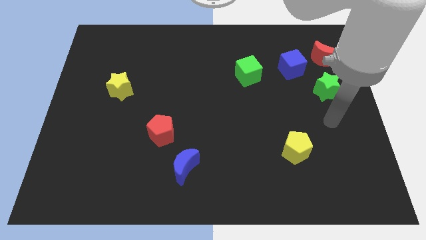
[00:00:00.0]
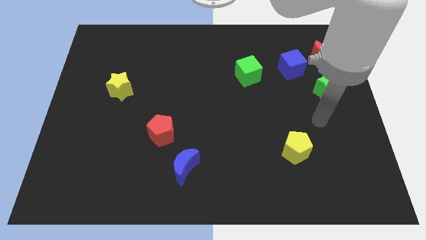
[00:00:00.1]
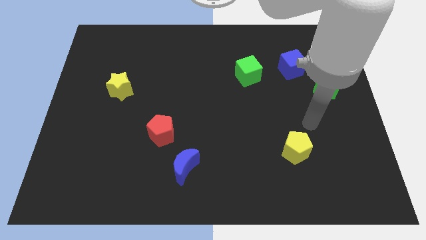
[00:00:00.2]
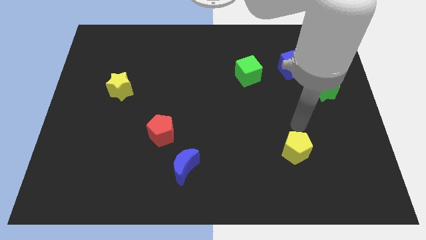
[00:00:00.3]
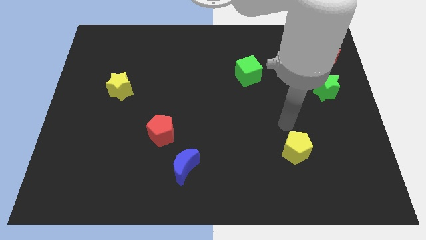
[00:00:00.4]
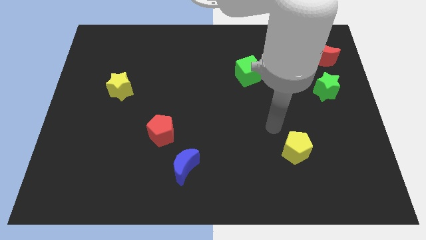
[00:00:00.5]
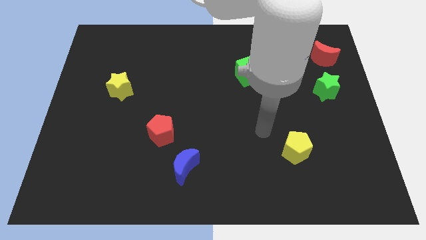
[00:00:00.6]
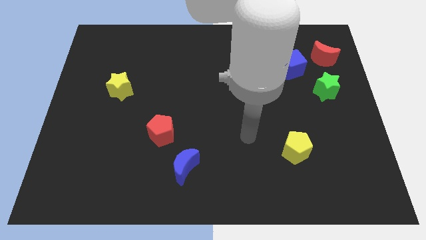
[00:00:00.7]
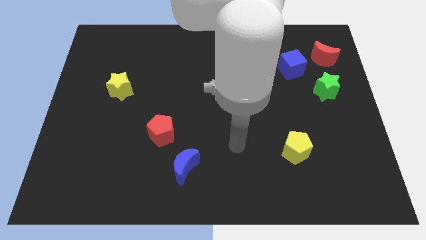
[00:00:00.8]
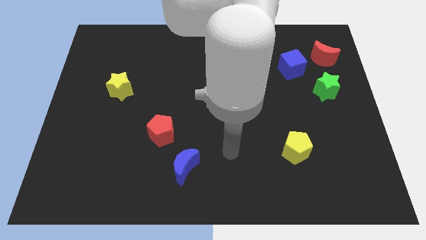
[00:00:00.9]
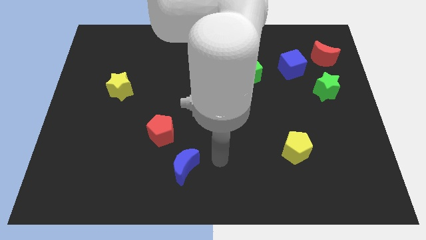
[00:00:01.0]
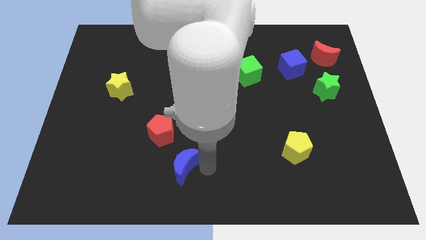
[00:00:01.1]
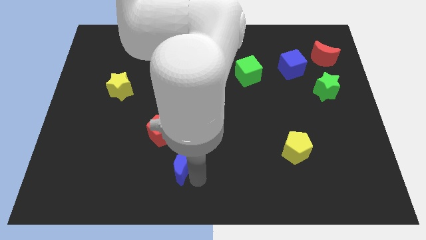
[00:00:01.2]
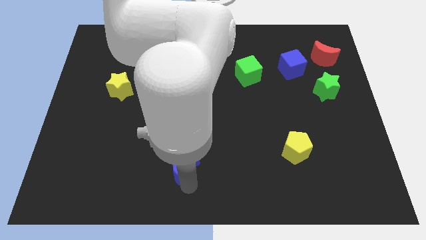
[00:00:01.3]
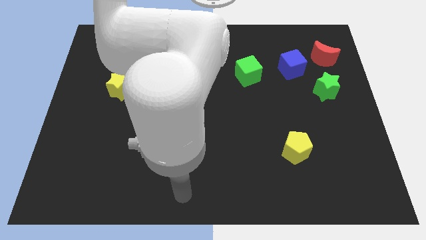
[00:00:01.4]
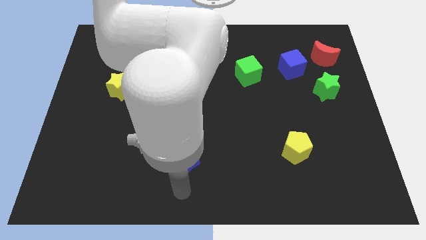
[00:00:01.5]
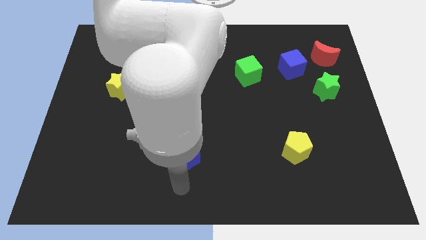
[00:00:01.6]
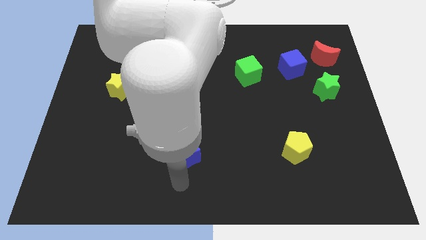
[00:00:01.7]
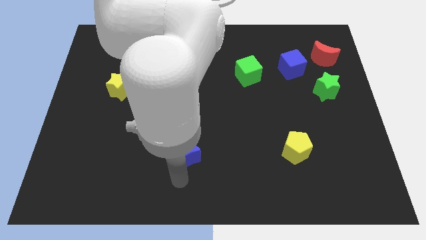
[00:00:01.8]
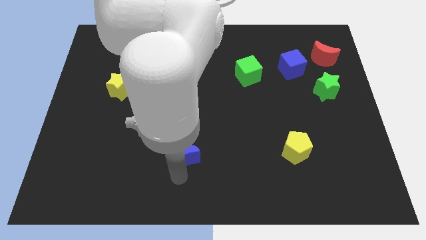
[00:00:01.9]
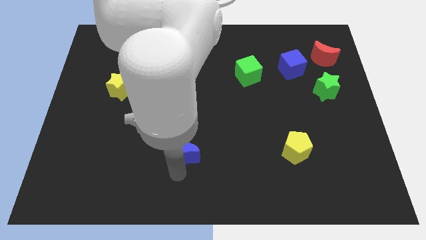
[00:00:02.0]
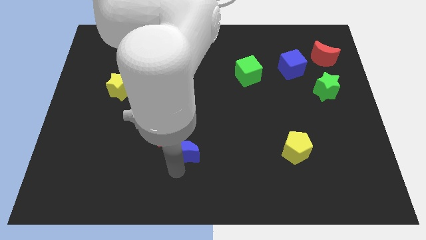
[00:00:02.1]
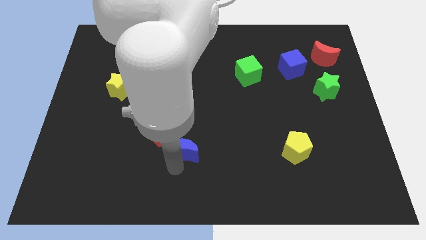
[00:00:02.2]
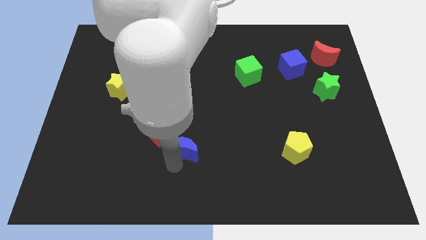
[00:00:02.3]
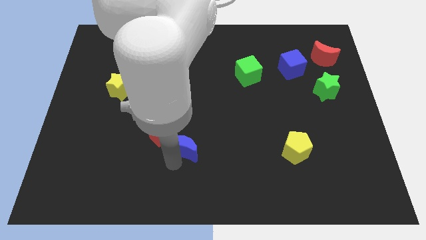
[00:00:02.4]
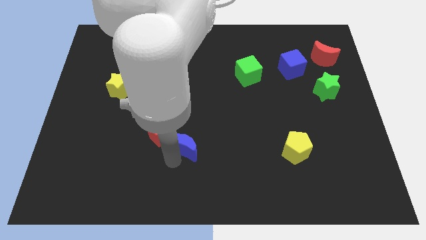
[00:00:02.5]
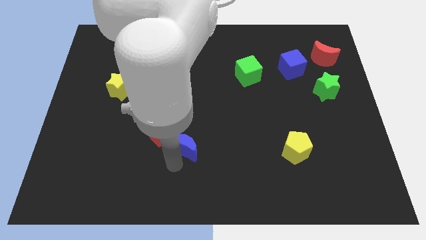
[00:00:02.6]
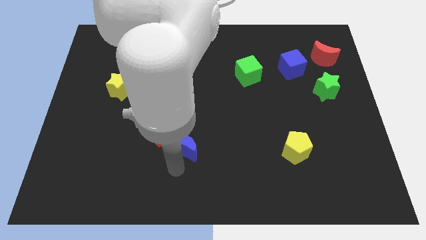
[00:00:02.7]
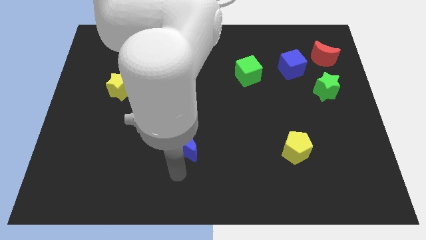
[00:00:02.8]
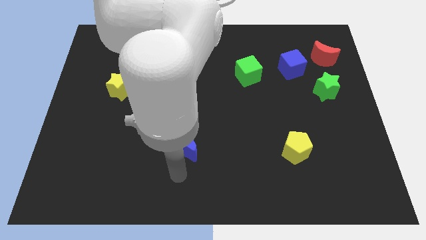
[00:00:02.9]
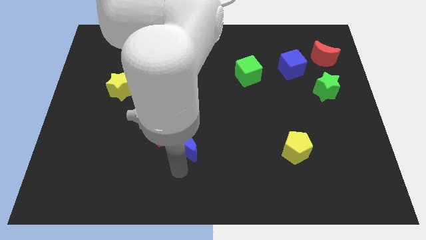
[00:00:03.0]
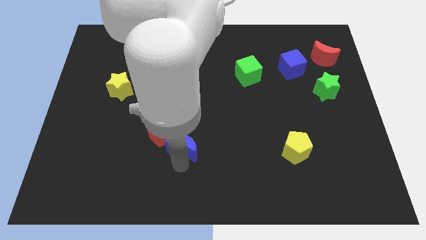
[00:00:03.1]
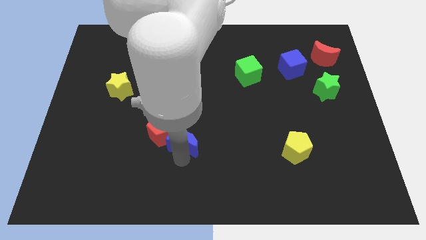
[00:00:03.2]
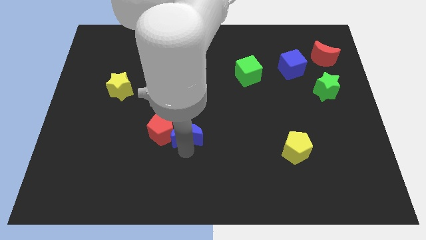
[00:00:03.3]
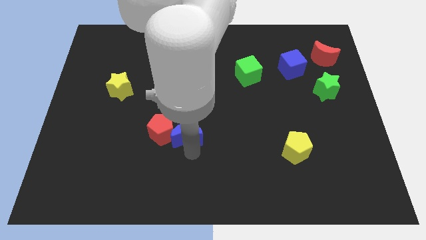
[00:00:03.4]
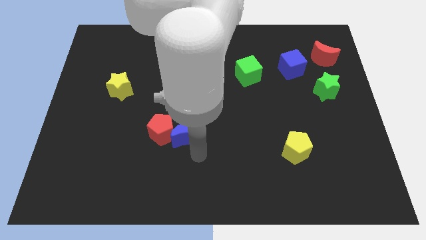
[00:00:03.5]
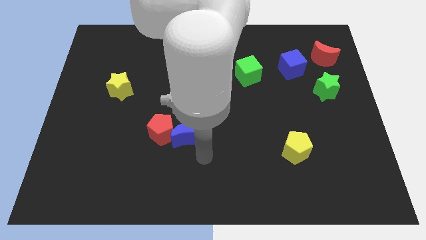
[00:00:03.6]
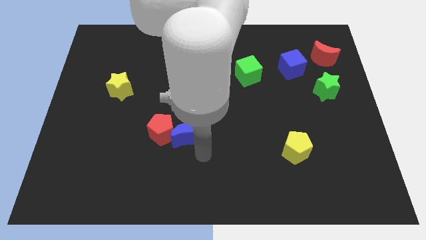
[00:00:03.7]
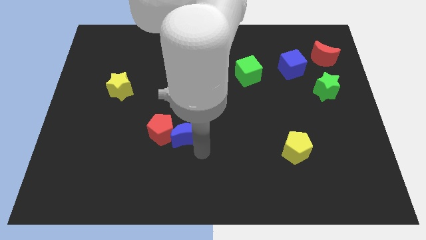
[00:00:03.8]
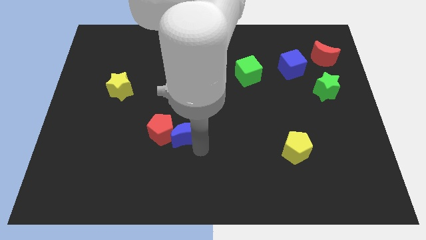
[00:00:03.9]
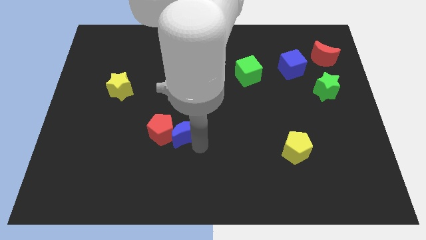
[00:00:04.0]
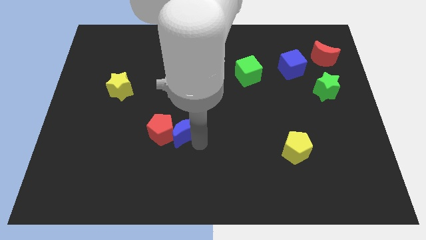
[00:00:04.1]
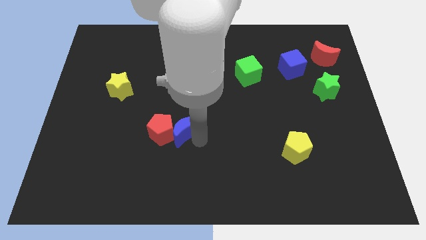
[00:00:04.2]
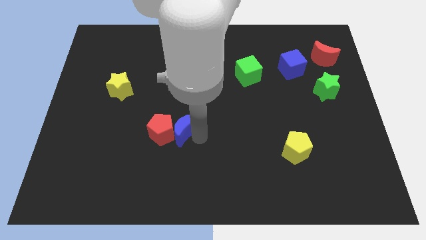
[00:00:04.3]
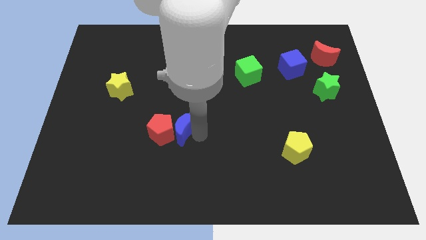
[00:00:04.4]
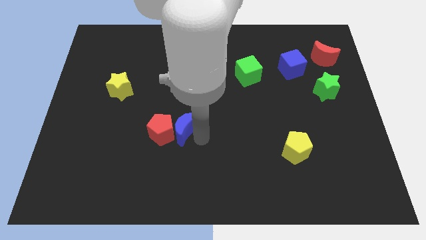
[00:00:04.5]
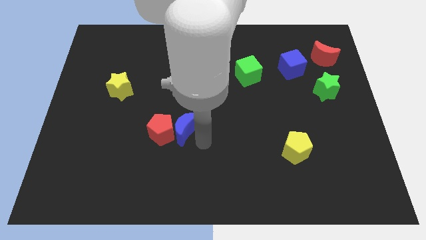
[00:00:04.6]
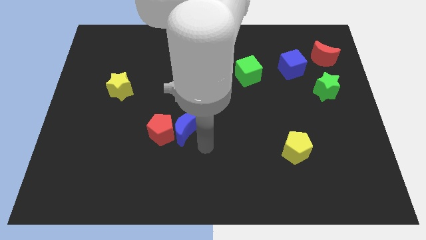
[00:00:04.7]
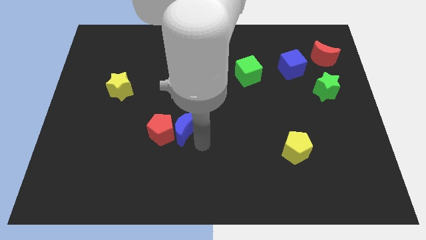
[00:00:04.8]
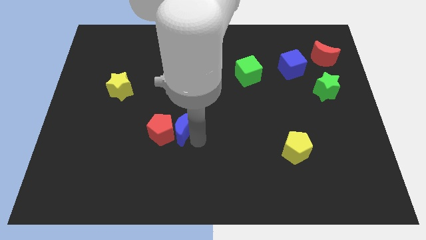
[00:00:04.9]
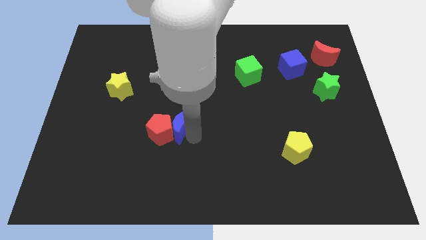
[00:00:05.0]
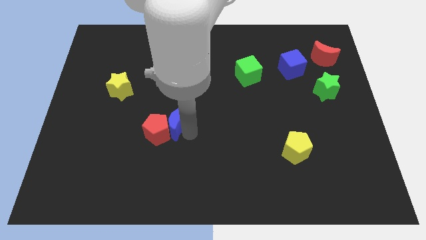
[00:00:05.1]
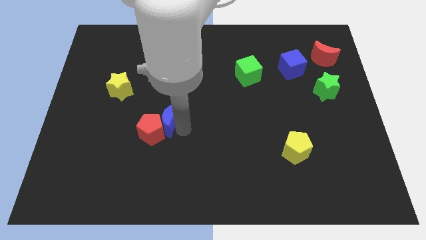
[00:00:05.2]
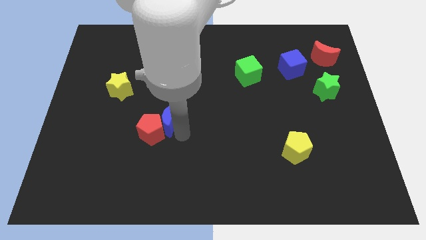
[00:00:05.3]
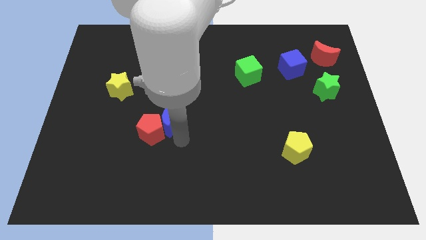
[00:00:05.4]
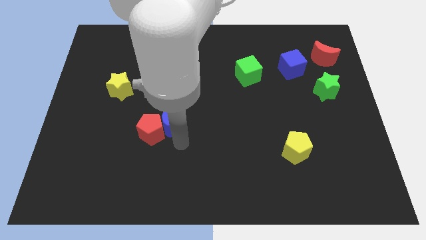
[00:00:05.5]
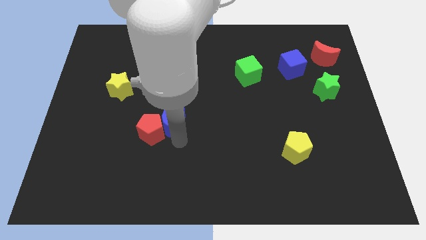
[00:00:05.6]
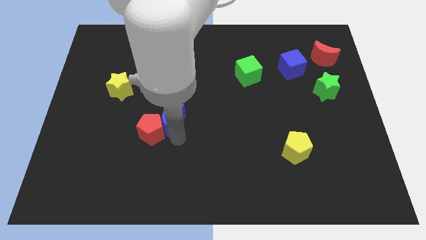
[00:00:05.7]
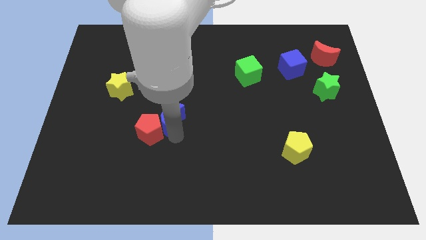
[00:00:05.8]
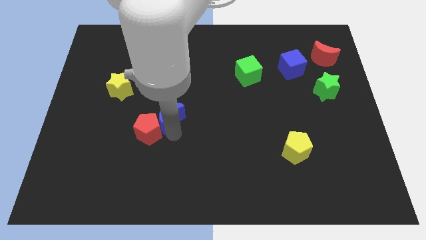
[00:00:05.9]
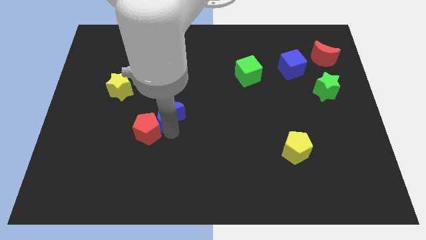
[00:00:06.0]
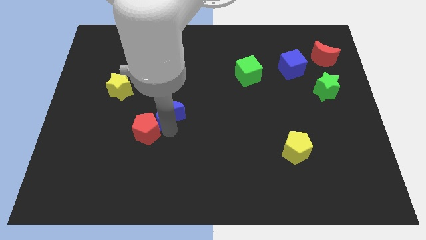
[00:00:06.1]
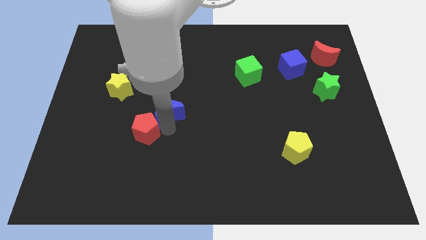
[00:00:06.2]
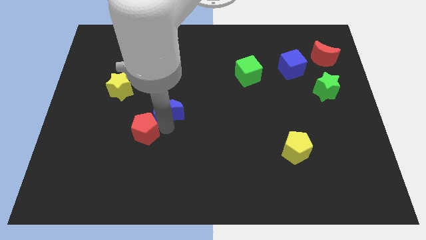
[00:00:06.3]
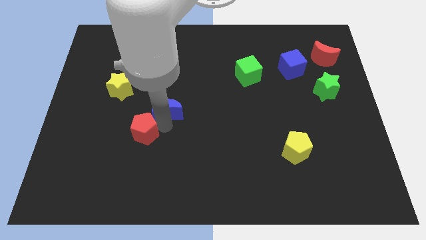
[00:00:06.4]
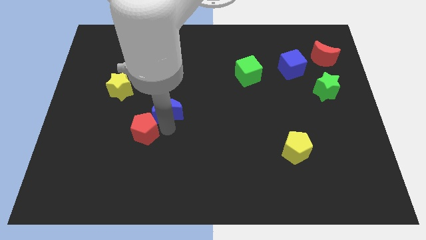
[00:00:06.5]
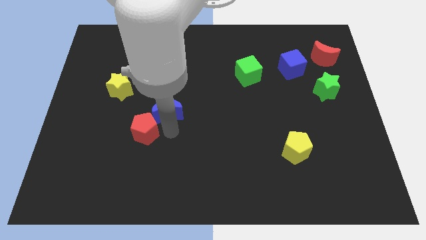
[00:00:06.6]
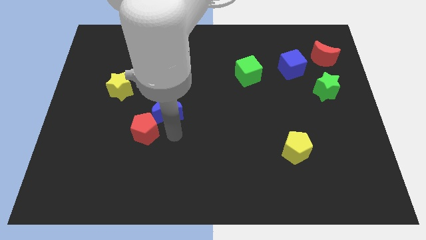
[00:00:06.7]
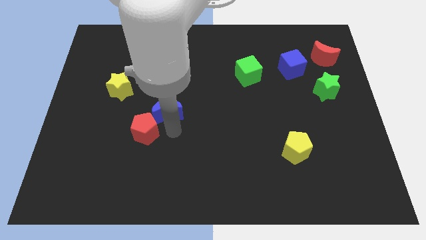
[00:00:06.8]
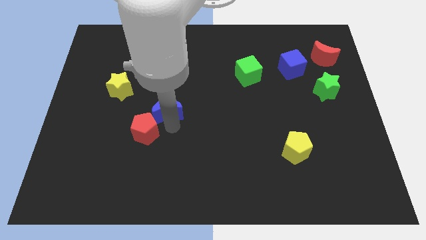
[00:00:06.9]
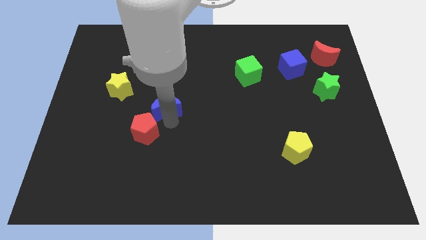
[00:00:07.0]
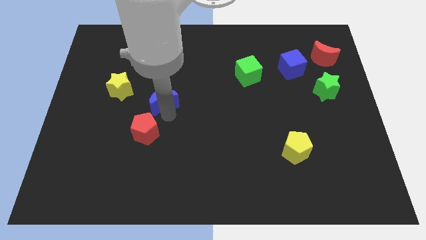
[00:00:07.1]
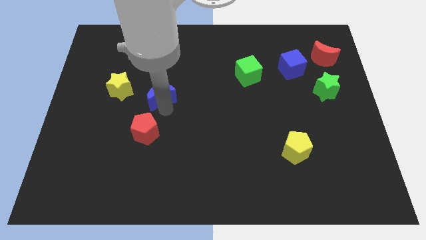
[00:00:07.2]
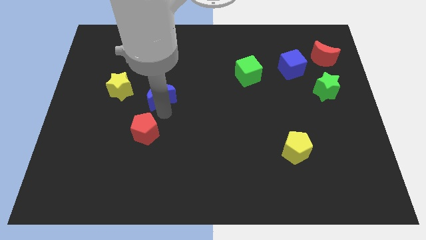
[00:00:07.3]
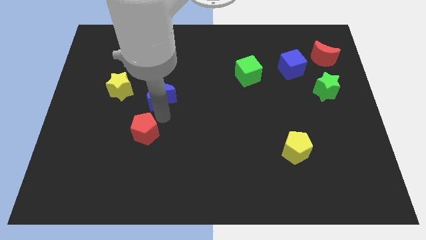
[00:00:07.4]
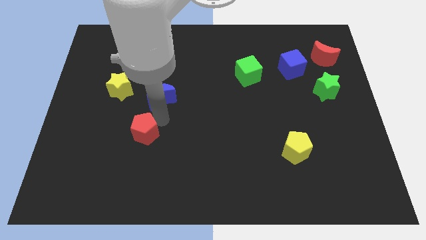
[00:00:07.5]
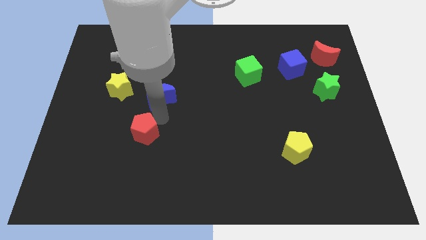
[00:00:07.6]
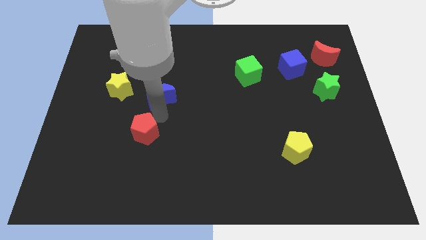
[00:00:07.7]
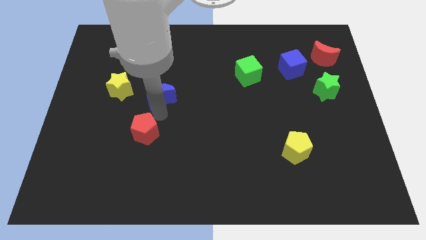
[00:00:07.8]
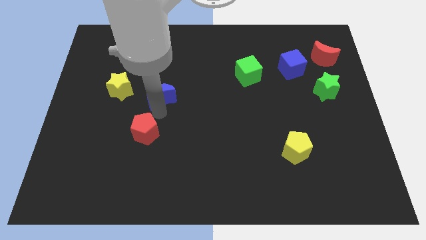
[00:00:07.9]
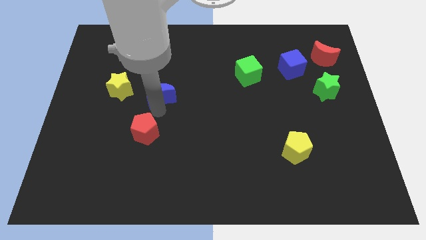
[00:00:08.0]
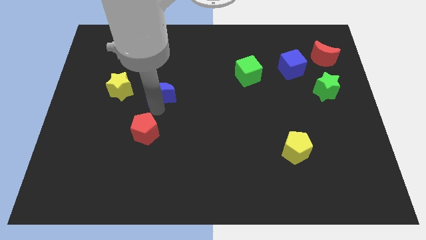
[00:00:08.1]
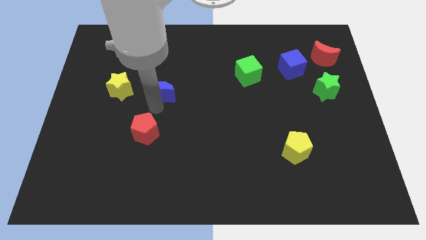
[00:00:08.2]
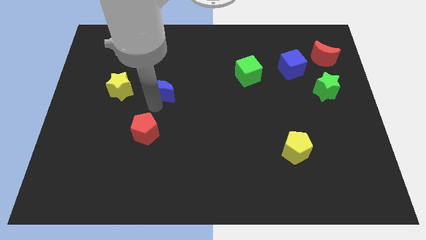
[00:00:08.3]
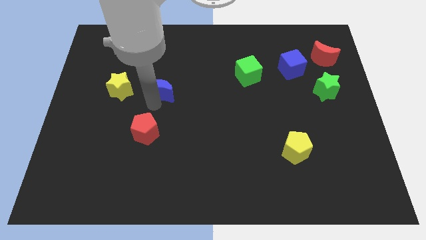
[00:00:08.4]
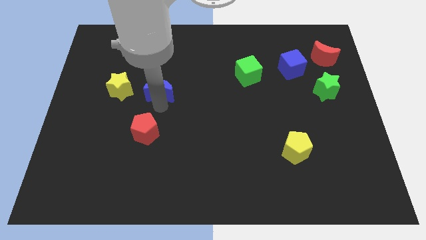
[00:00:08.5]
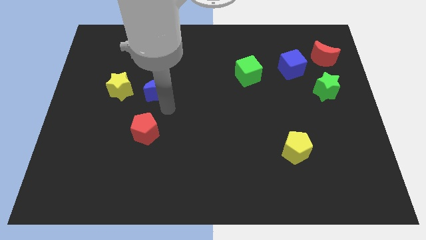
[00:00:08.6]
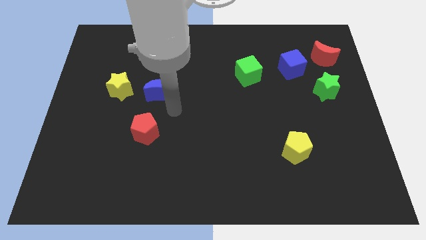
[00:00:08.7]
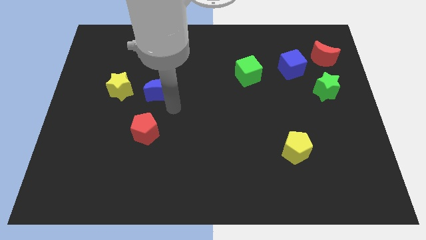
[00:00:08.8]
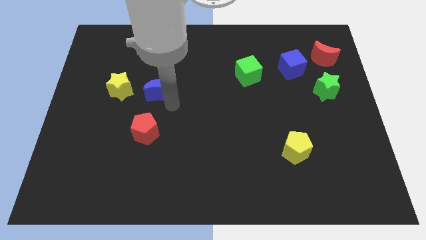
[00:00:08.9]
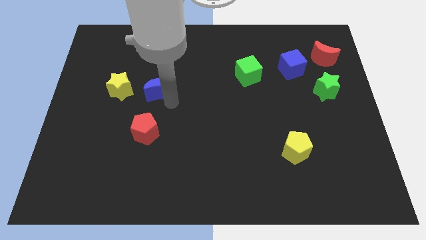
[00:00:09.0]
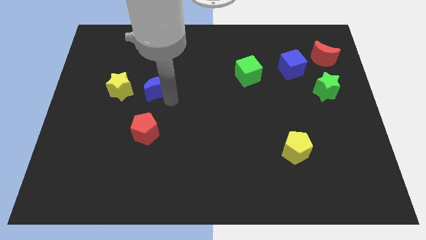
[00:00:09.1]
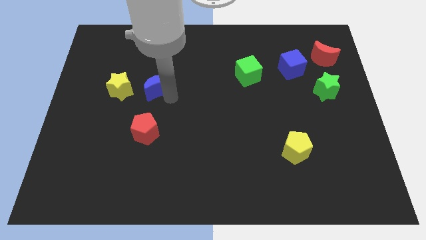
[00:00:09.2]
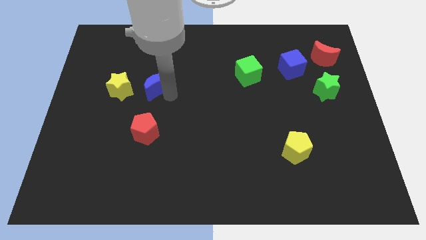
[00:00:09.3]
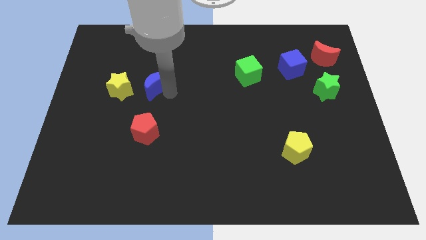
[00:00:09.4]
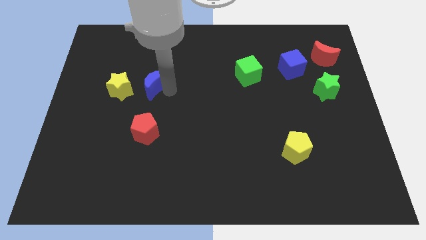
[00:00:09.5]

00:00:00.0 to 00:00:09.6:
put the blue moon diagonally up and to the right of the yellow star
